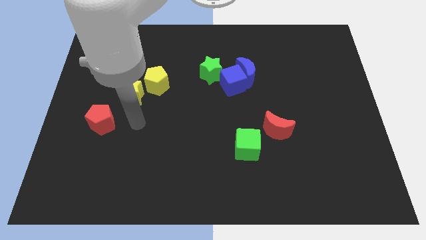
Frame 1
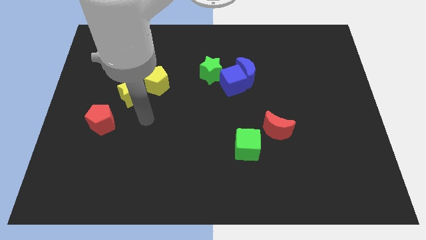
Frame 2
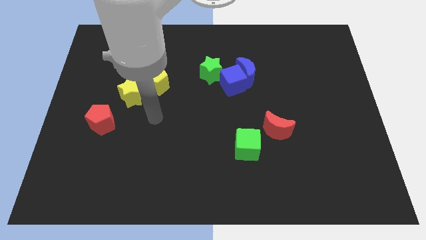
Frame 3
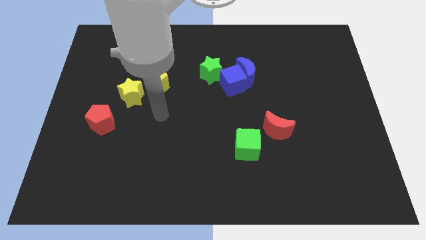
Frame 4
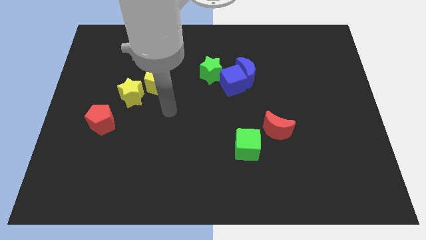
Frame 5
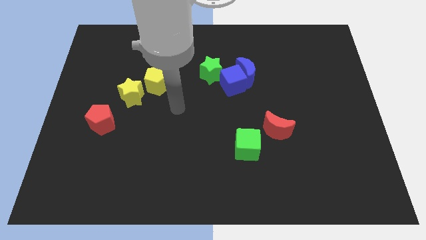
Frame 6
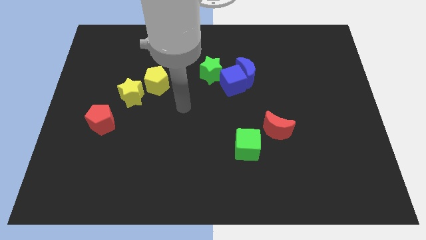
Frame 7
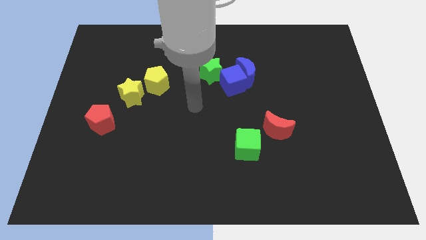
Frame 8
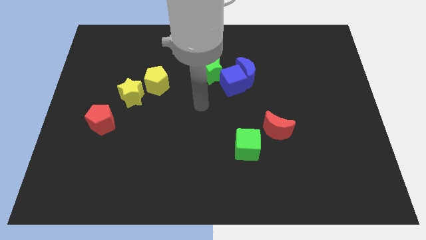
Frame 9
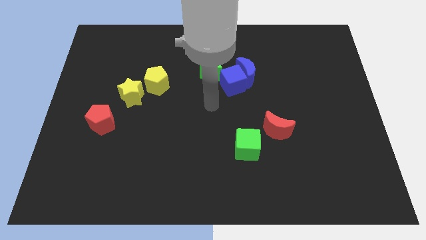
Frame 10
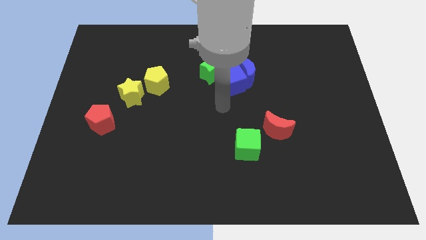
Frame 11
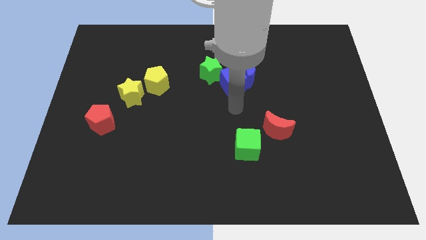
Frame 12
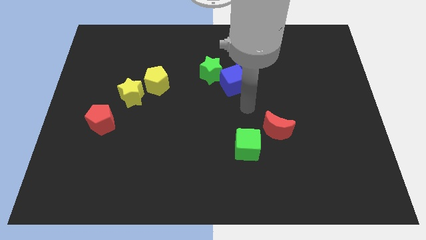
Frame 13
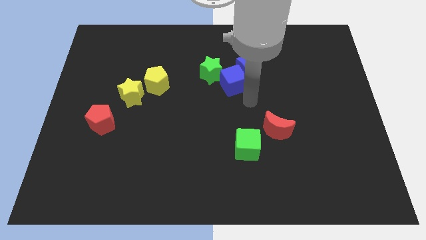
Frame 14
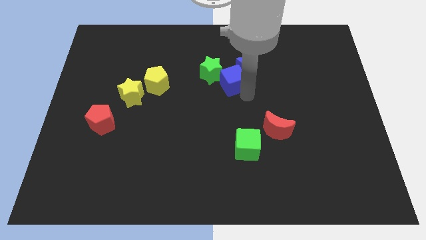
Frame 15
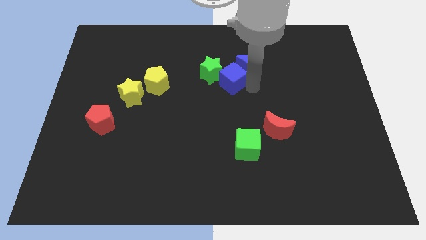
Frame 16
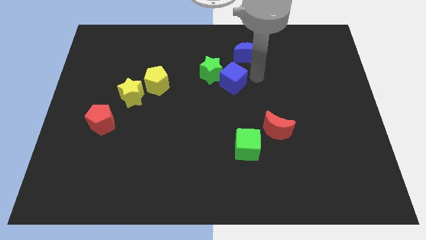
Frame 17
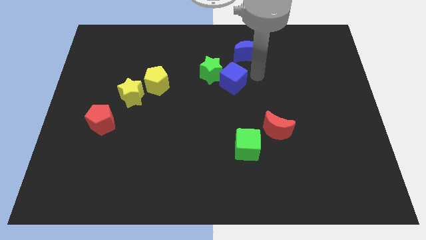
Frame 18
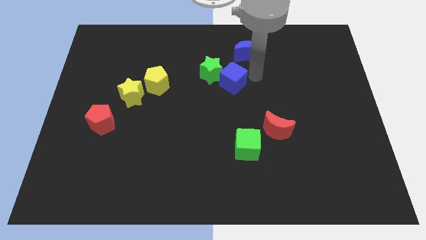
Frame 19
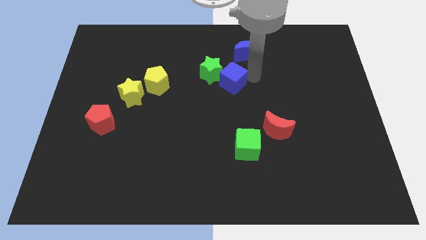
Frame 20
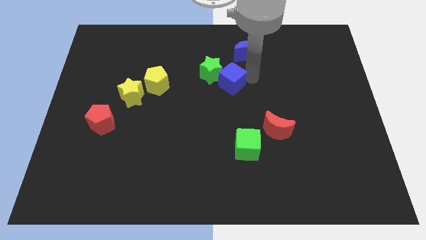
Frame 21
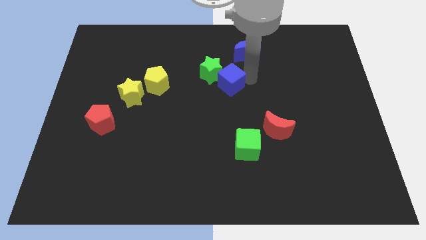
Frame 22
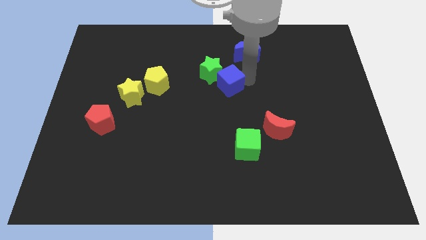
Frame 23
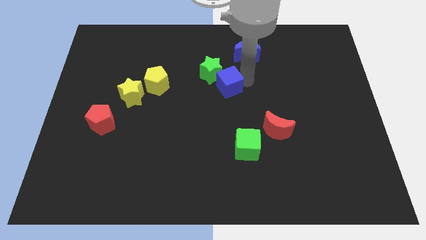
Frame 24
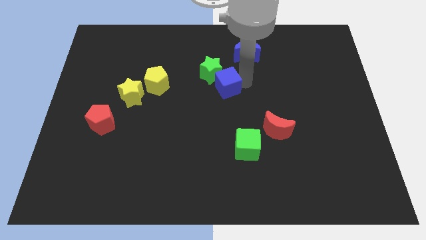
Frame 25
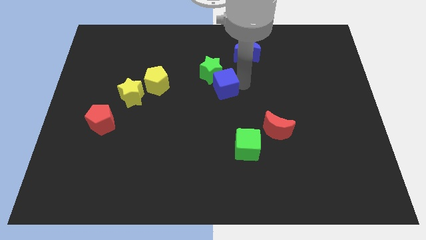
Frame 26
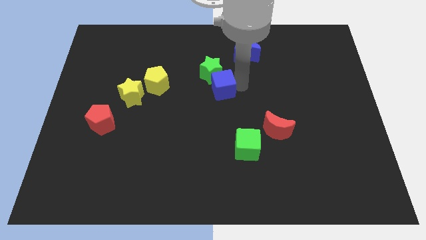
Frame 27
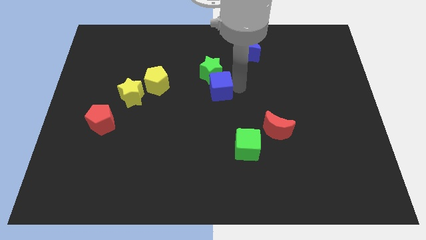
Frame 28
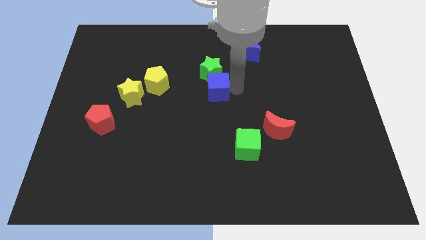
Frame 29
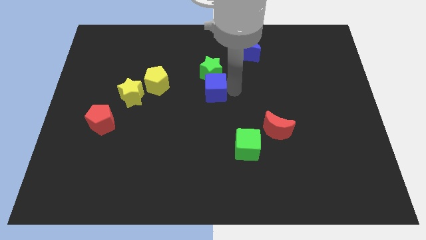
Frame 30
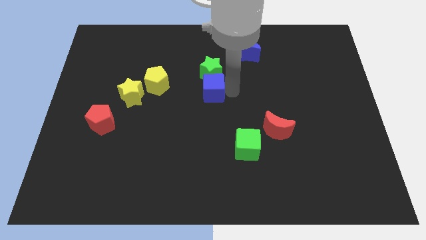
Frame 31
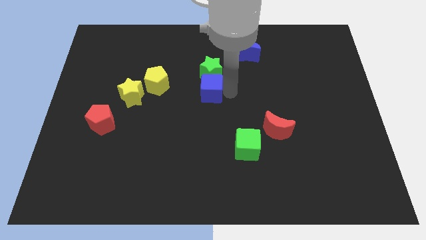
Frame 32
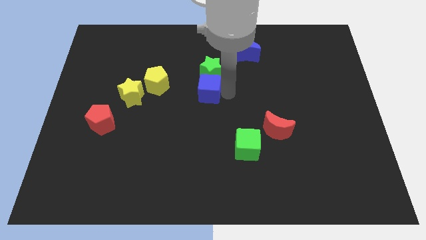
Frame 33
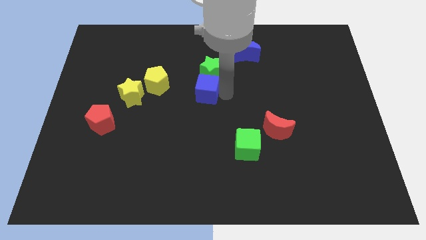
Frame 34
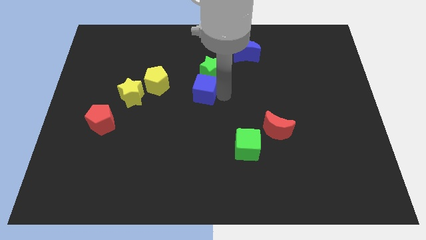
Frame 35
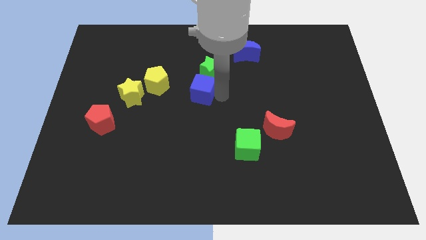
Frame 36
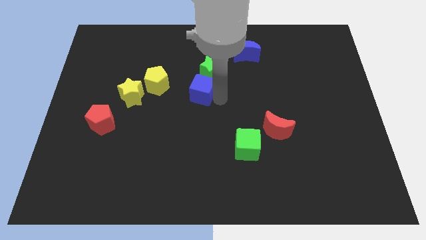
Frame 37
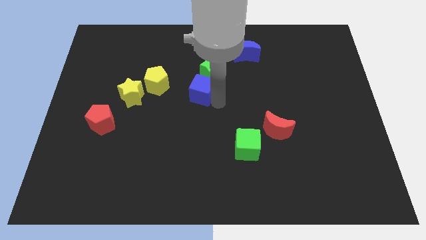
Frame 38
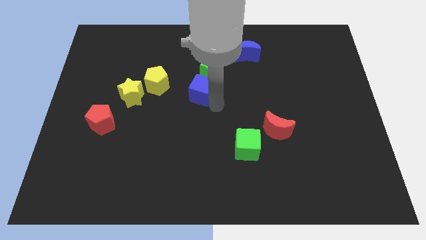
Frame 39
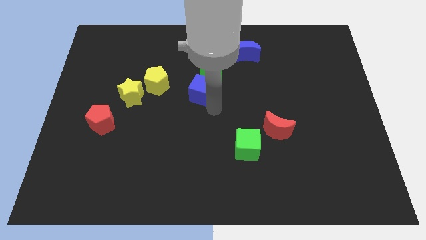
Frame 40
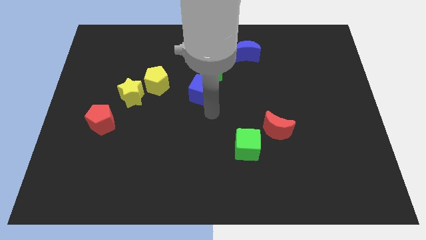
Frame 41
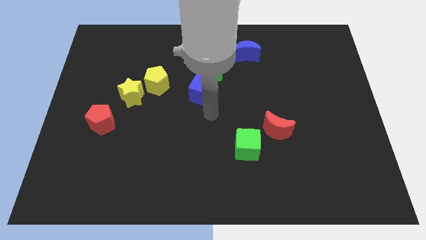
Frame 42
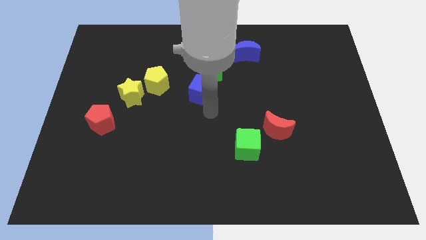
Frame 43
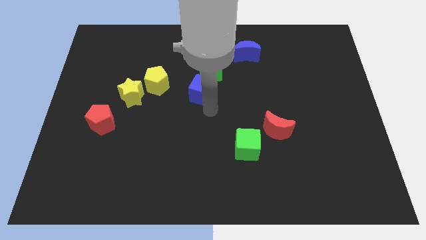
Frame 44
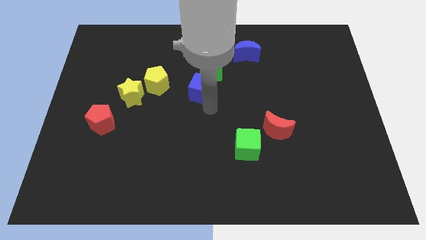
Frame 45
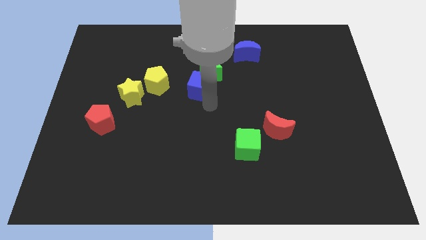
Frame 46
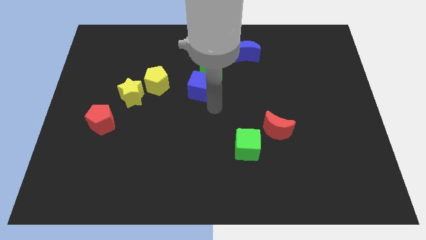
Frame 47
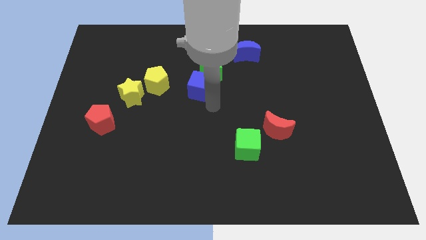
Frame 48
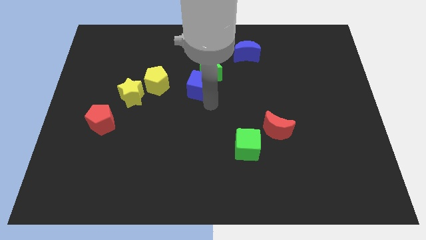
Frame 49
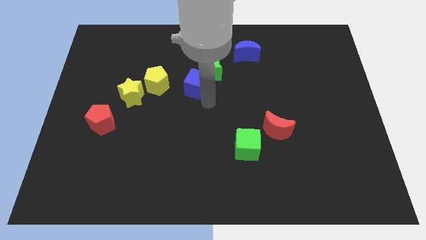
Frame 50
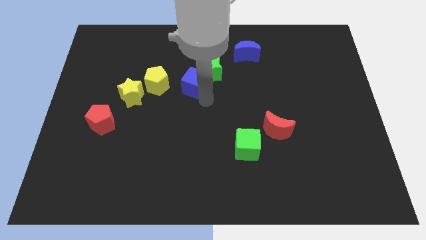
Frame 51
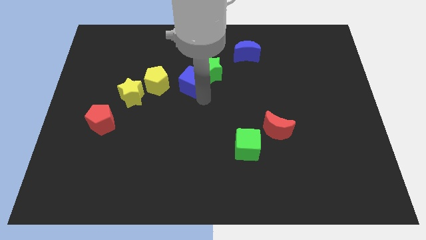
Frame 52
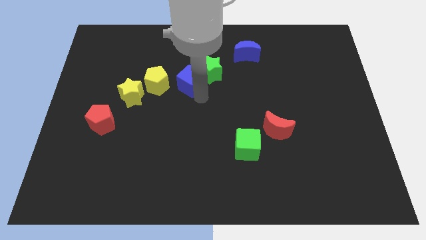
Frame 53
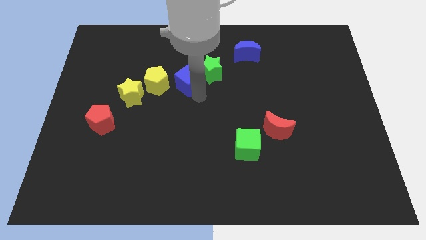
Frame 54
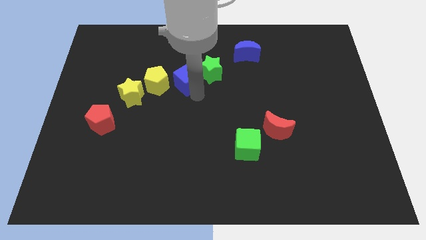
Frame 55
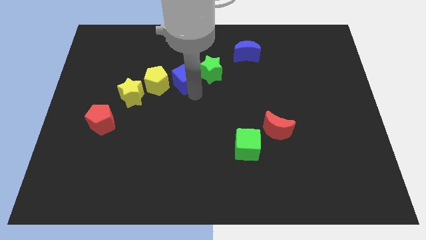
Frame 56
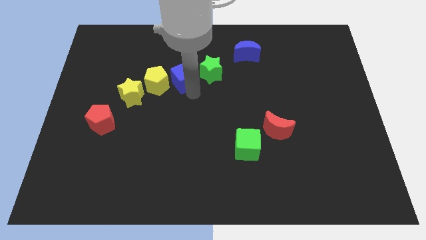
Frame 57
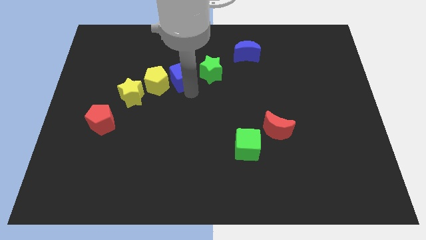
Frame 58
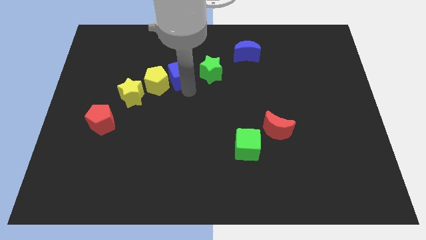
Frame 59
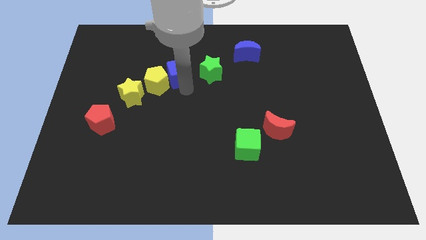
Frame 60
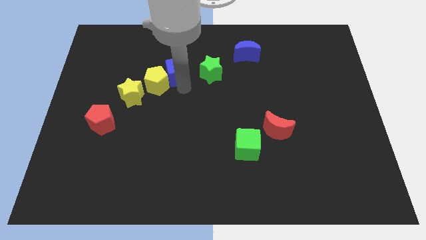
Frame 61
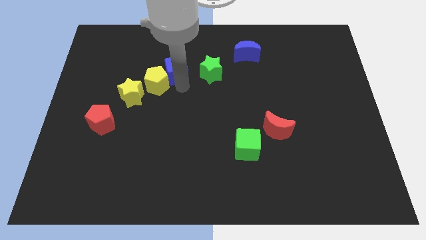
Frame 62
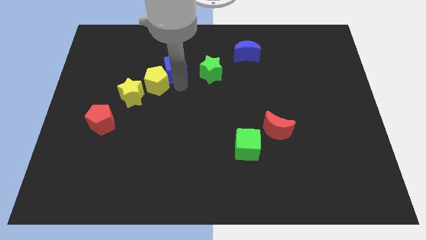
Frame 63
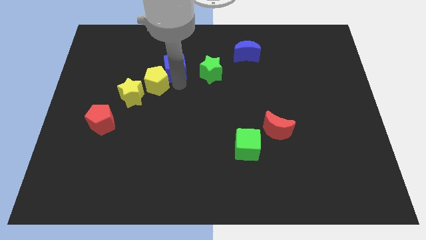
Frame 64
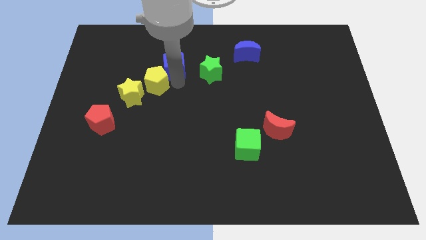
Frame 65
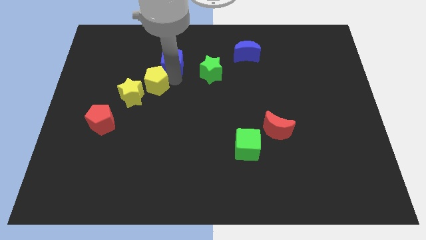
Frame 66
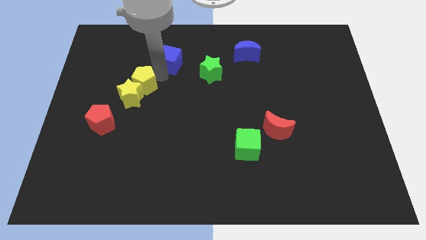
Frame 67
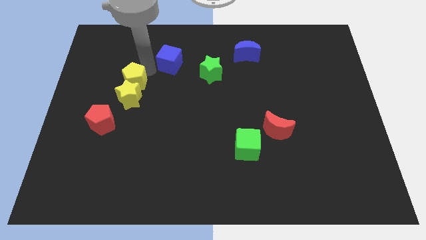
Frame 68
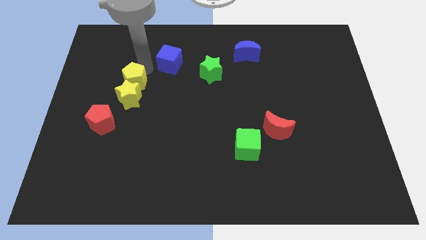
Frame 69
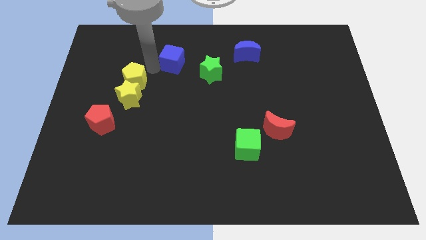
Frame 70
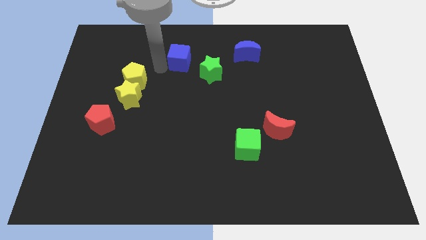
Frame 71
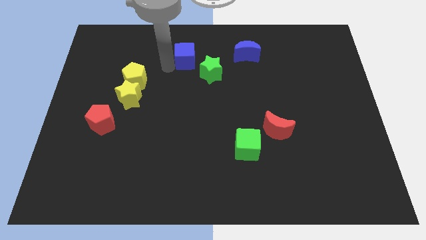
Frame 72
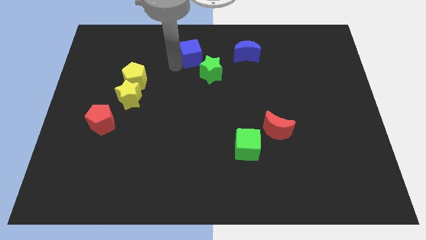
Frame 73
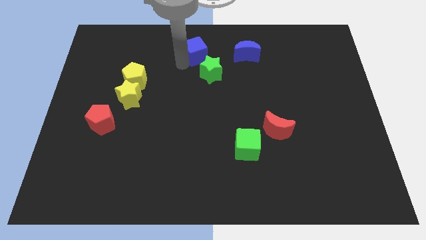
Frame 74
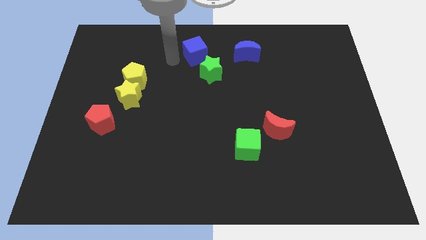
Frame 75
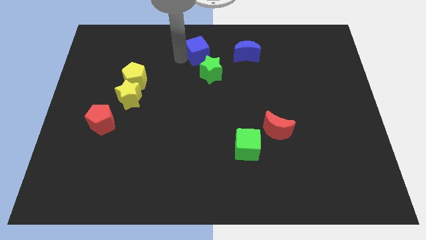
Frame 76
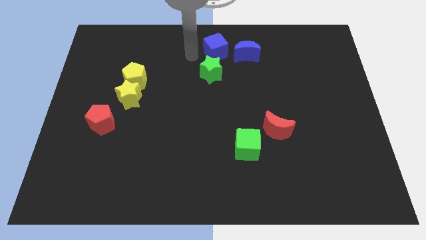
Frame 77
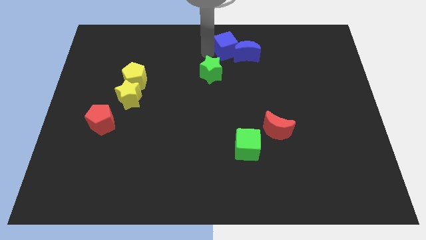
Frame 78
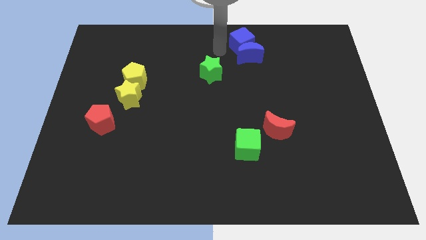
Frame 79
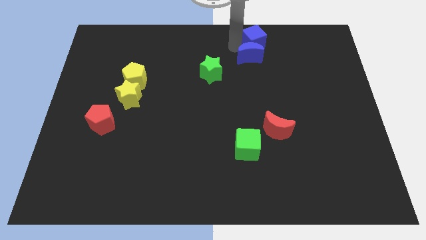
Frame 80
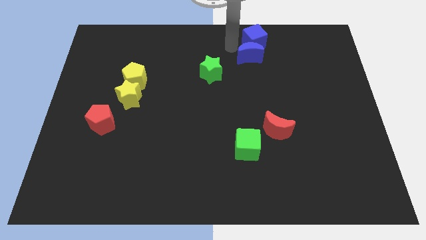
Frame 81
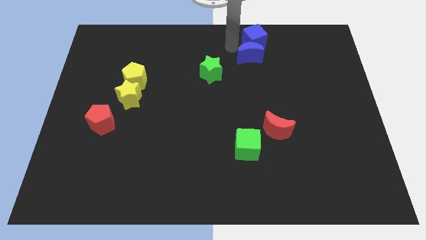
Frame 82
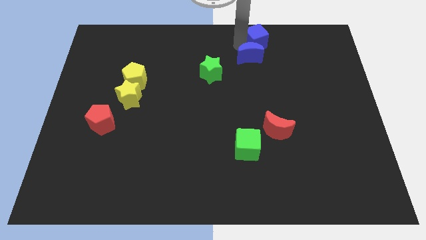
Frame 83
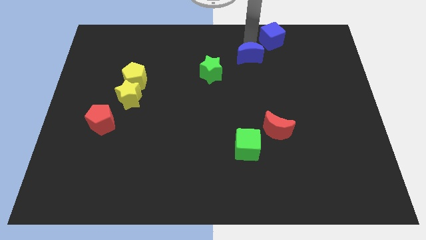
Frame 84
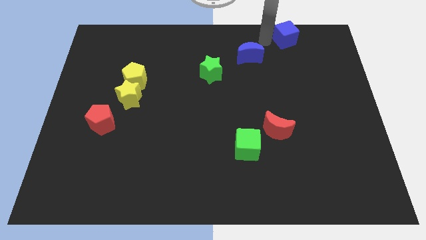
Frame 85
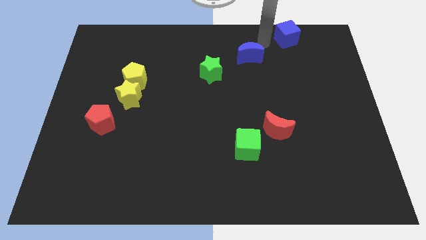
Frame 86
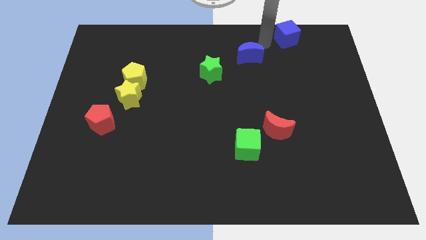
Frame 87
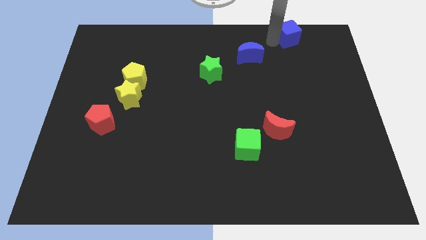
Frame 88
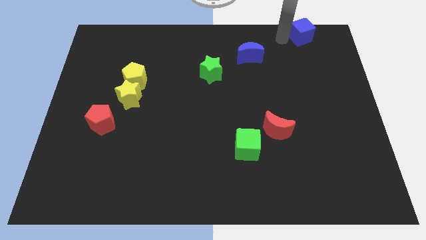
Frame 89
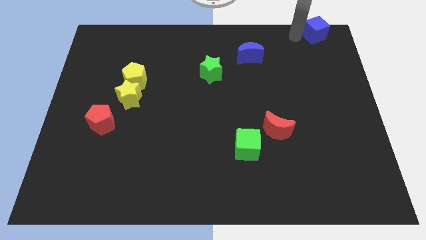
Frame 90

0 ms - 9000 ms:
put the blue cube to the top right
